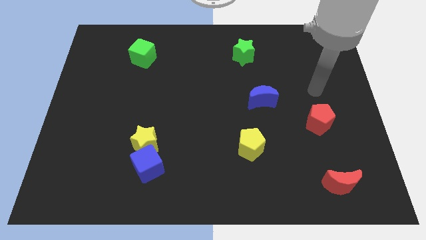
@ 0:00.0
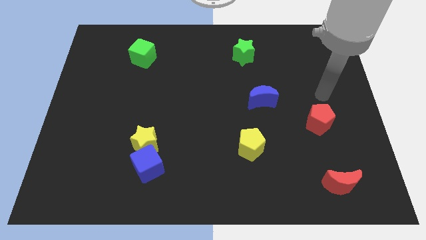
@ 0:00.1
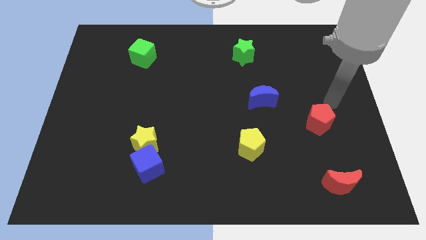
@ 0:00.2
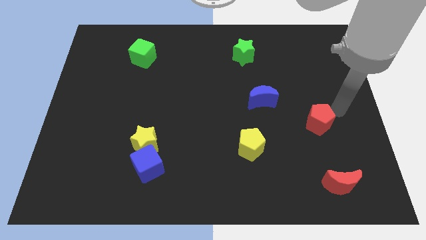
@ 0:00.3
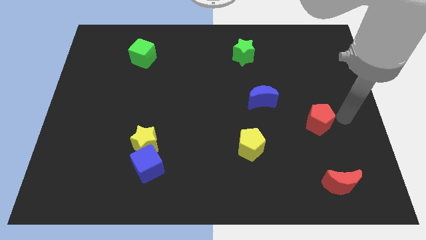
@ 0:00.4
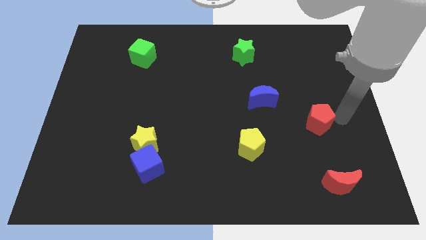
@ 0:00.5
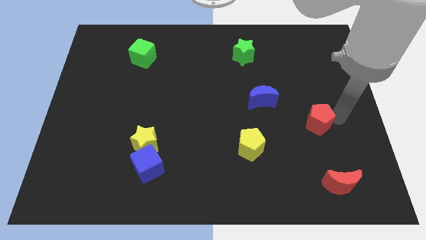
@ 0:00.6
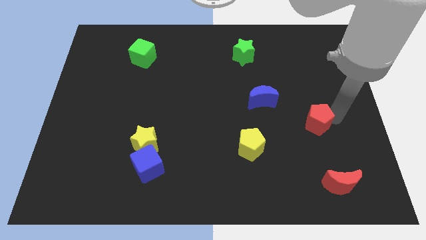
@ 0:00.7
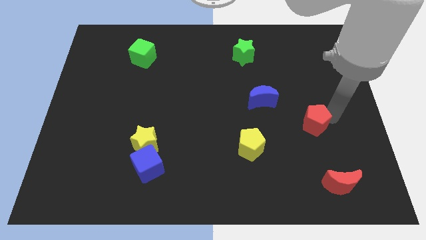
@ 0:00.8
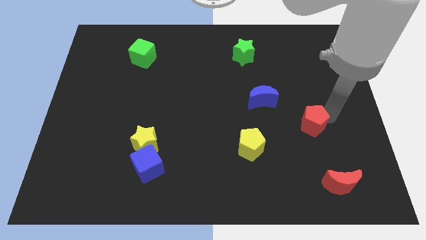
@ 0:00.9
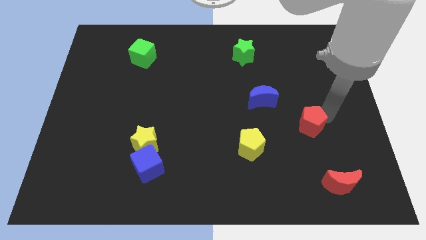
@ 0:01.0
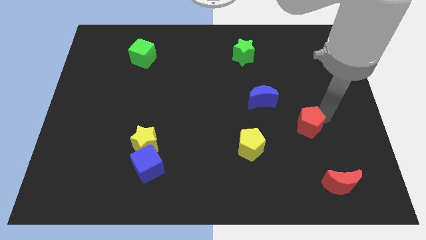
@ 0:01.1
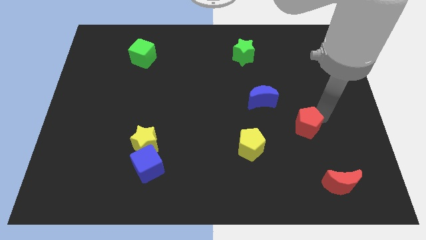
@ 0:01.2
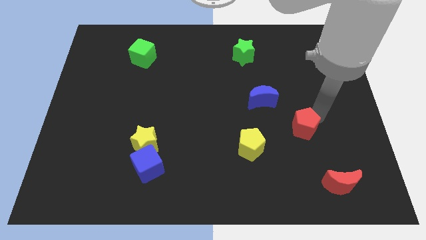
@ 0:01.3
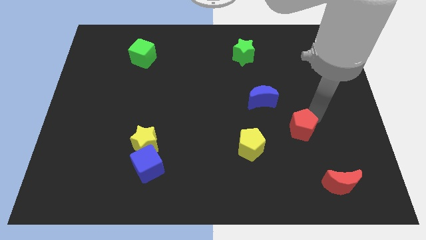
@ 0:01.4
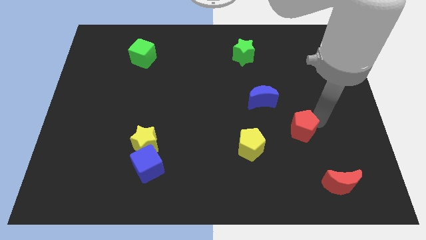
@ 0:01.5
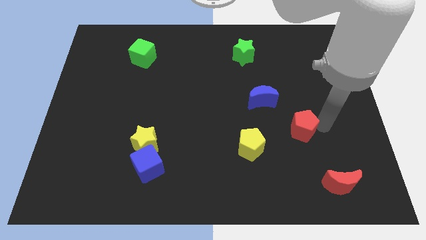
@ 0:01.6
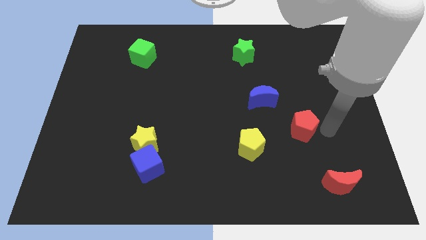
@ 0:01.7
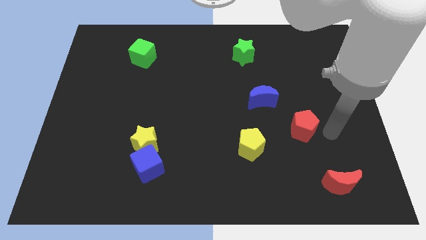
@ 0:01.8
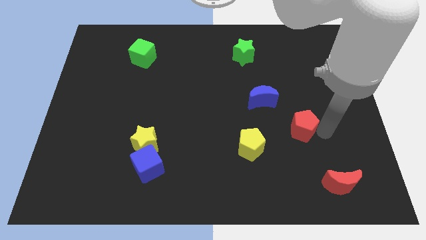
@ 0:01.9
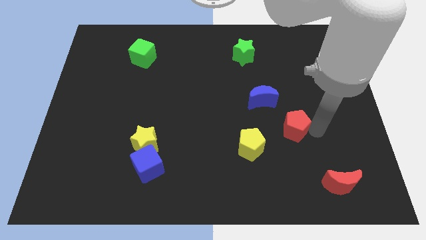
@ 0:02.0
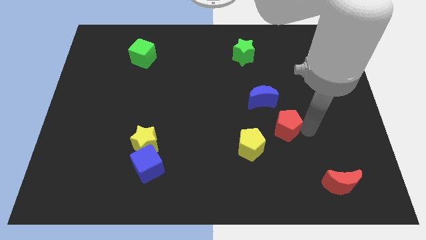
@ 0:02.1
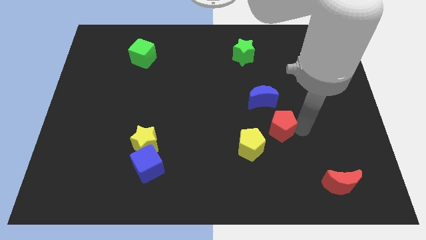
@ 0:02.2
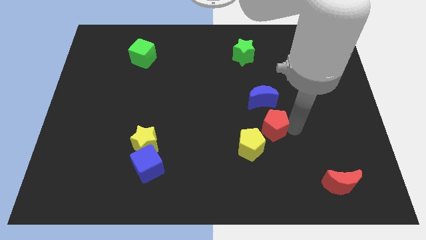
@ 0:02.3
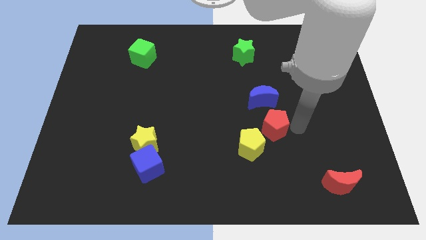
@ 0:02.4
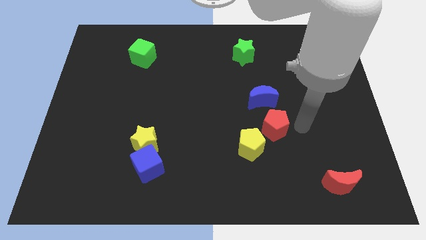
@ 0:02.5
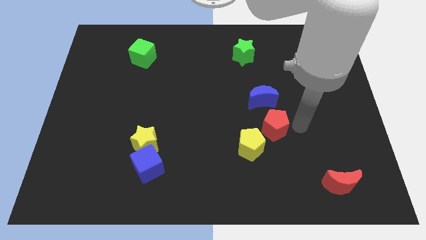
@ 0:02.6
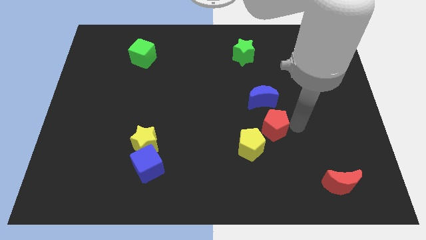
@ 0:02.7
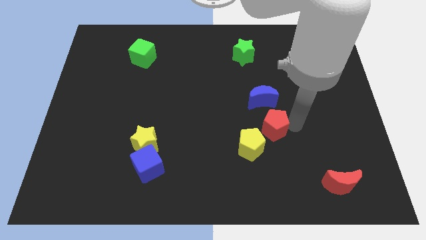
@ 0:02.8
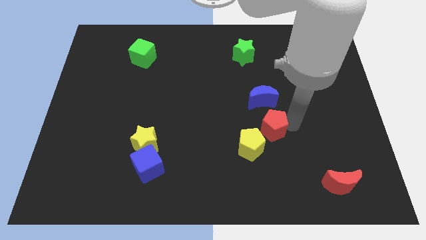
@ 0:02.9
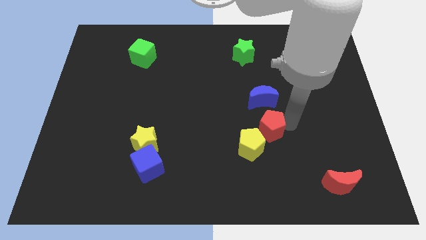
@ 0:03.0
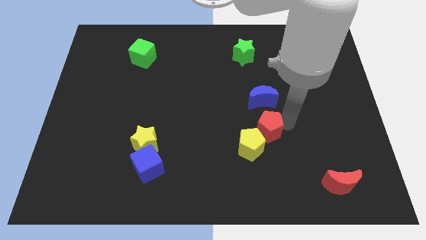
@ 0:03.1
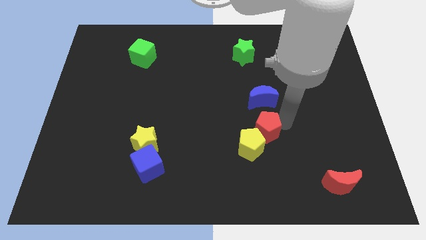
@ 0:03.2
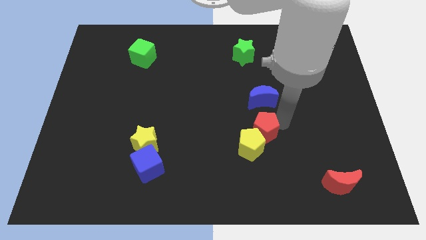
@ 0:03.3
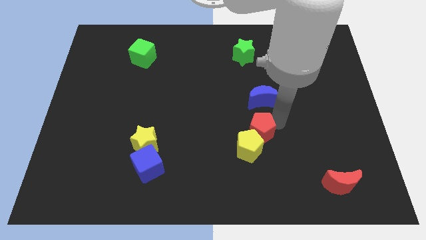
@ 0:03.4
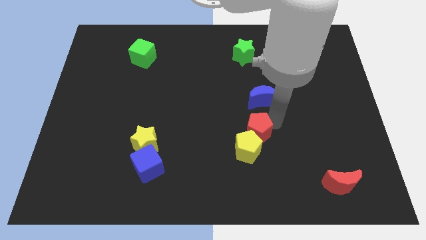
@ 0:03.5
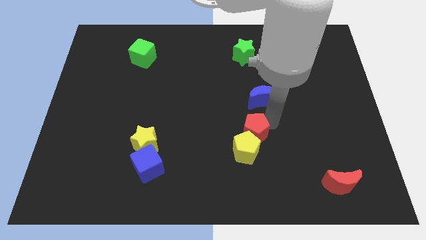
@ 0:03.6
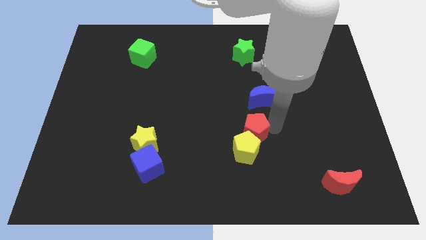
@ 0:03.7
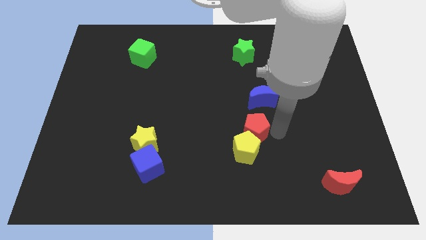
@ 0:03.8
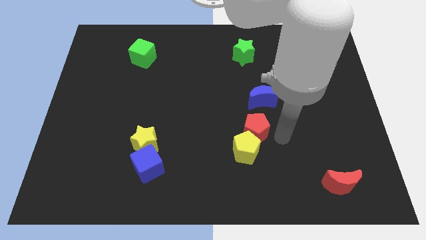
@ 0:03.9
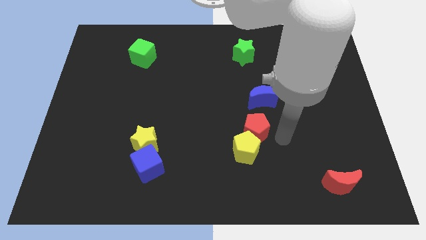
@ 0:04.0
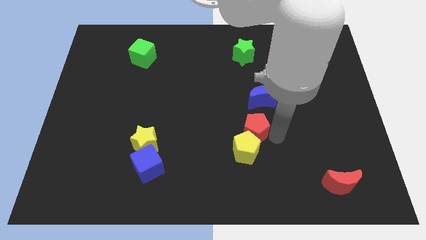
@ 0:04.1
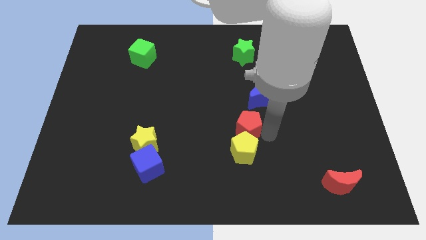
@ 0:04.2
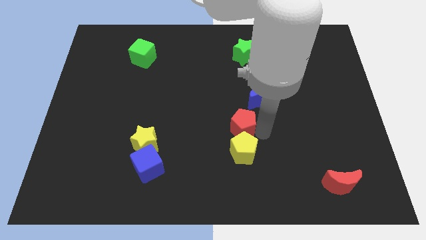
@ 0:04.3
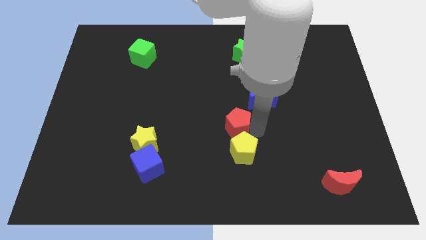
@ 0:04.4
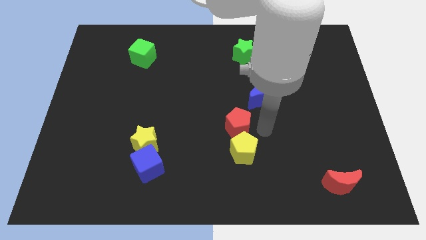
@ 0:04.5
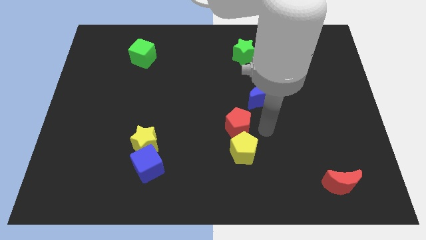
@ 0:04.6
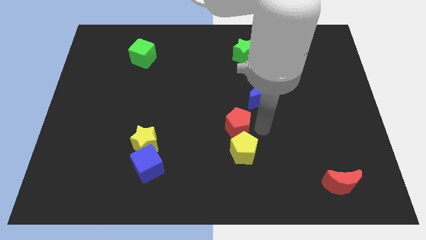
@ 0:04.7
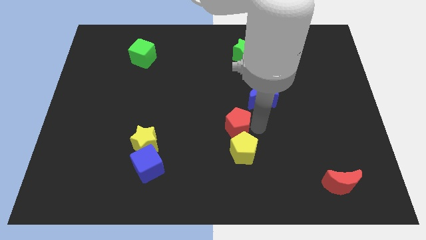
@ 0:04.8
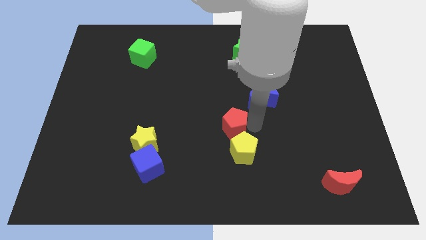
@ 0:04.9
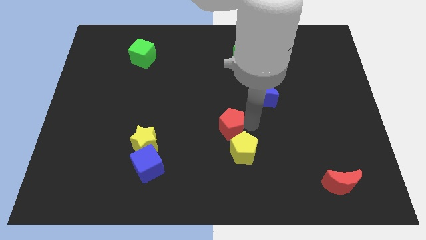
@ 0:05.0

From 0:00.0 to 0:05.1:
move the red pentagon to the left

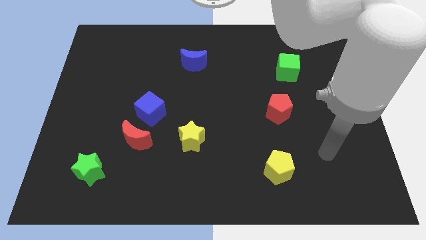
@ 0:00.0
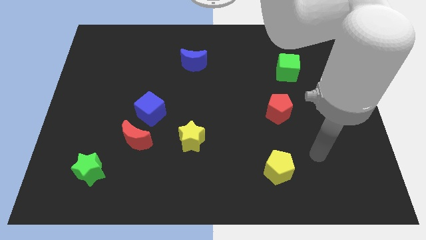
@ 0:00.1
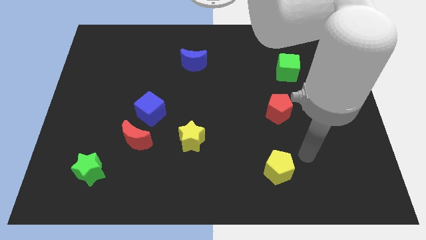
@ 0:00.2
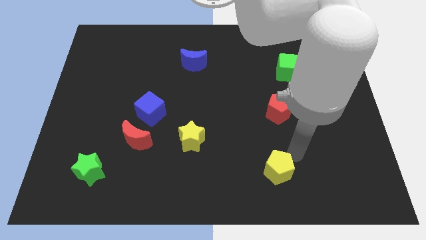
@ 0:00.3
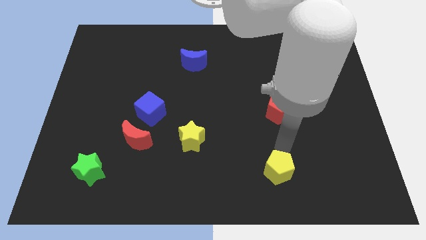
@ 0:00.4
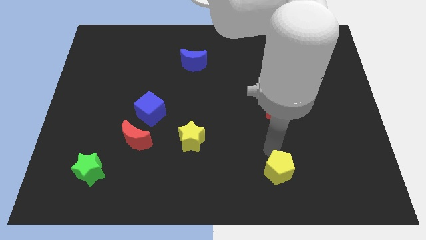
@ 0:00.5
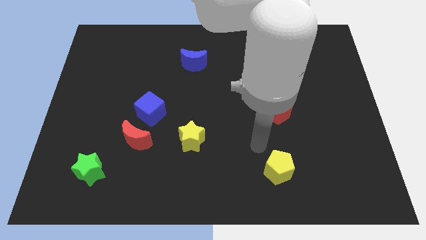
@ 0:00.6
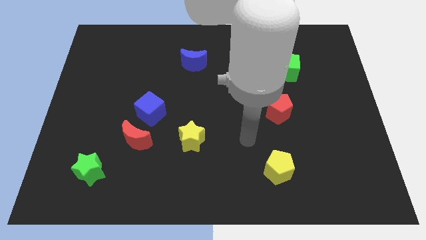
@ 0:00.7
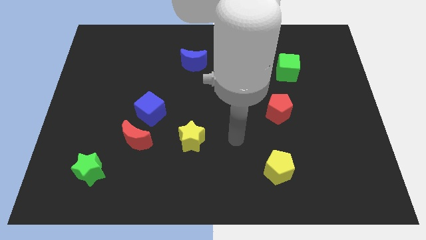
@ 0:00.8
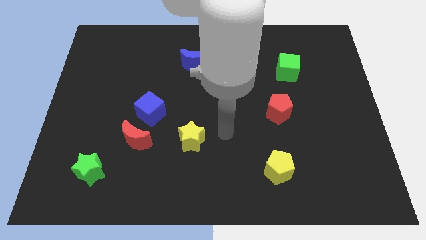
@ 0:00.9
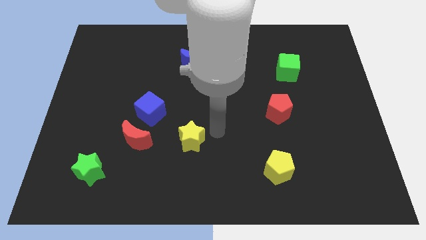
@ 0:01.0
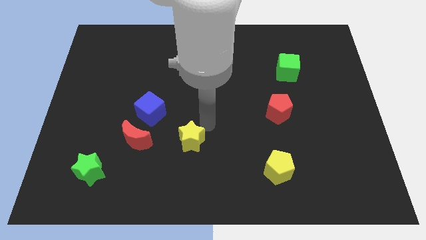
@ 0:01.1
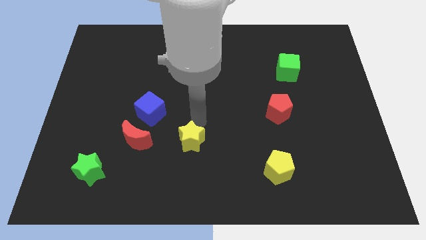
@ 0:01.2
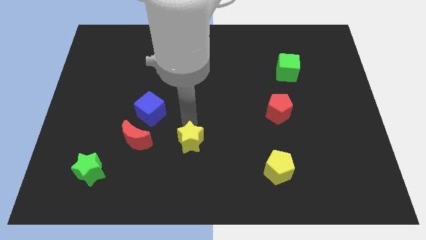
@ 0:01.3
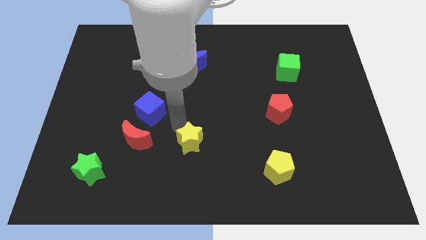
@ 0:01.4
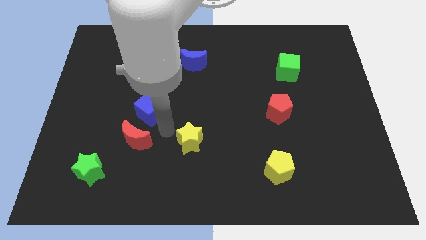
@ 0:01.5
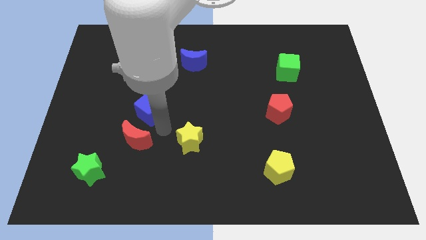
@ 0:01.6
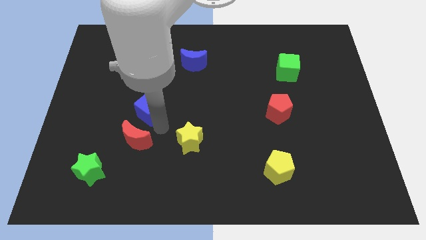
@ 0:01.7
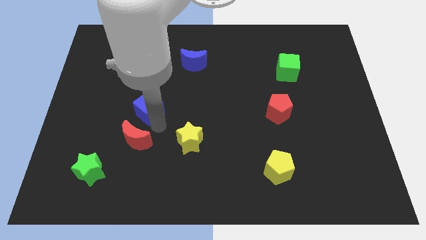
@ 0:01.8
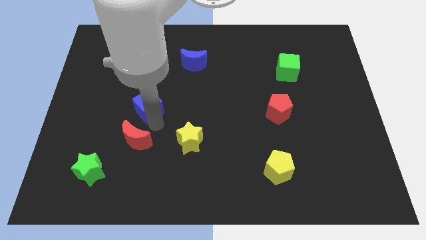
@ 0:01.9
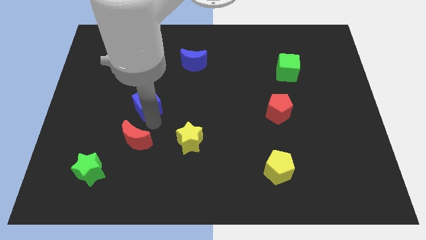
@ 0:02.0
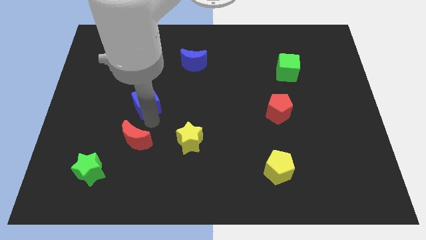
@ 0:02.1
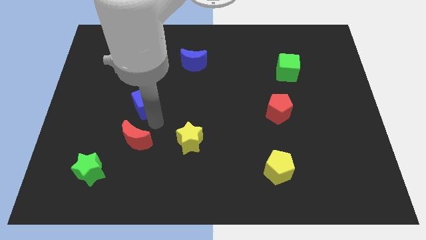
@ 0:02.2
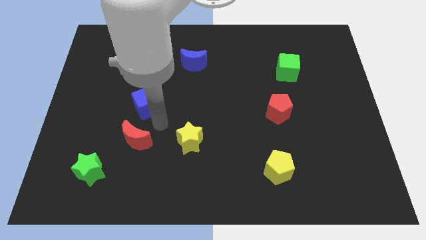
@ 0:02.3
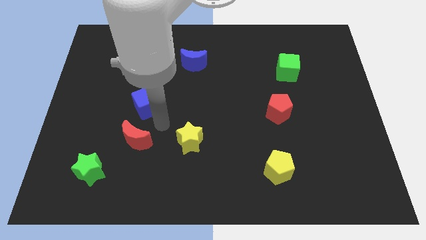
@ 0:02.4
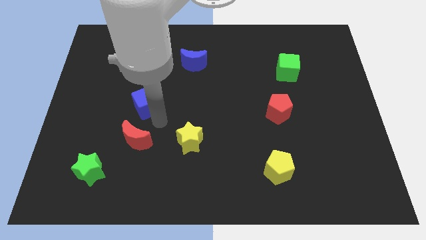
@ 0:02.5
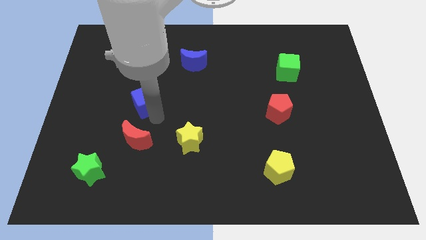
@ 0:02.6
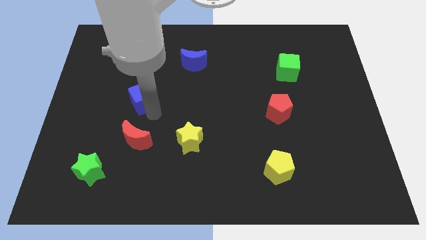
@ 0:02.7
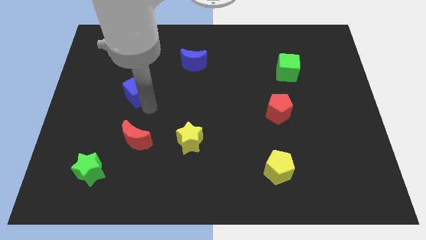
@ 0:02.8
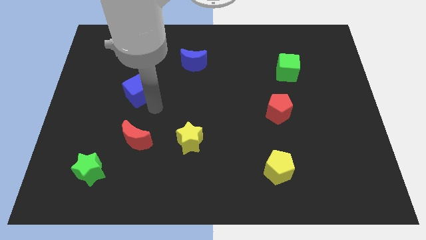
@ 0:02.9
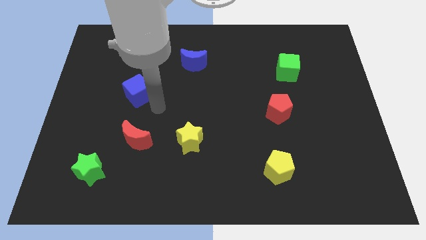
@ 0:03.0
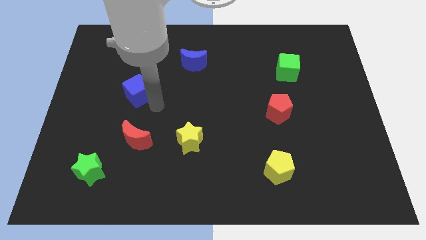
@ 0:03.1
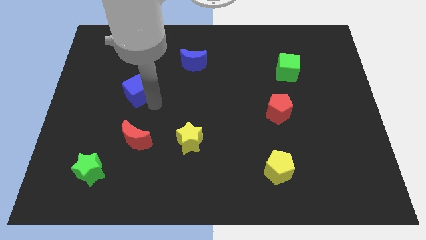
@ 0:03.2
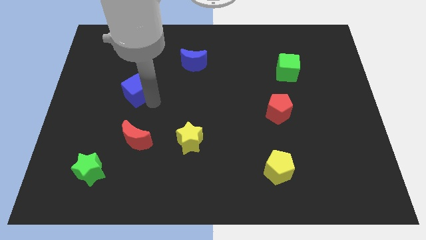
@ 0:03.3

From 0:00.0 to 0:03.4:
move the blue cube upwards and then to the left a little
